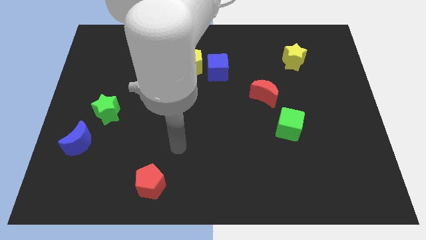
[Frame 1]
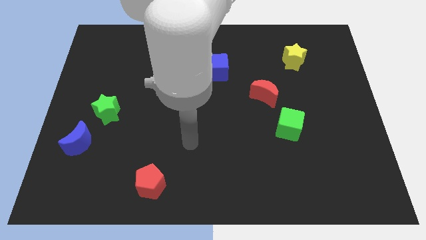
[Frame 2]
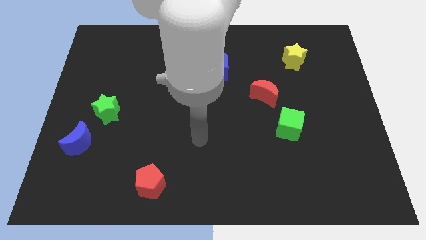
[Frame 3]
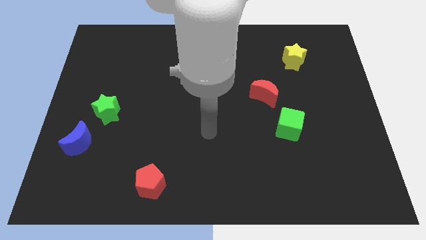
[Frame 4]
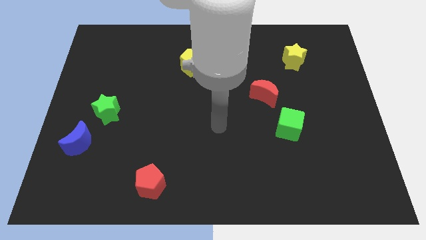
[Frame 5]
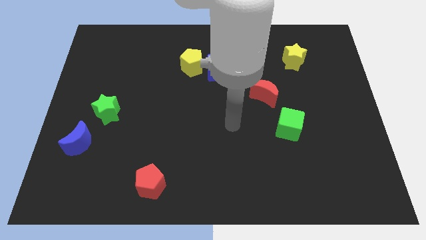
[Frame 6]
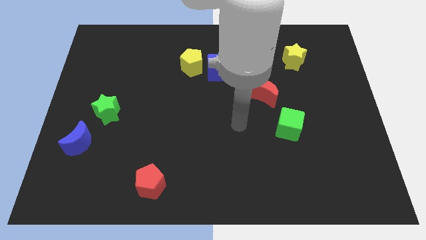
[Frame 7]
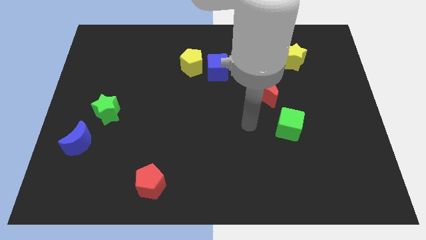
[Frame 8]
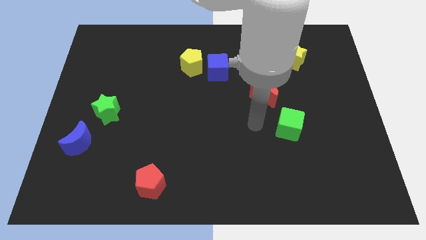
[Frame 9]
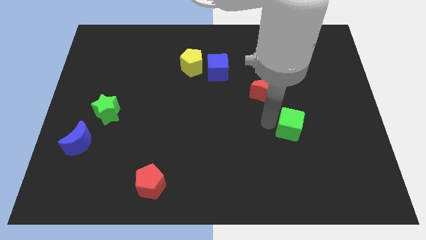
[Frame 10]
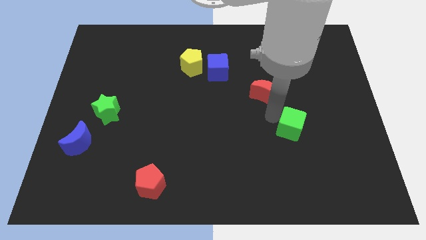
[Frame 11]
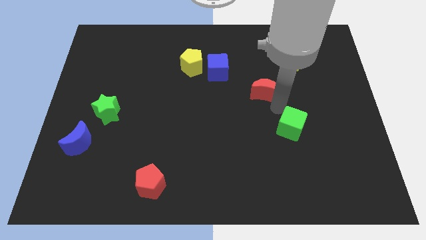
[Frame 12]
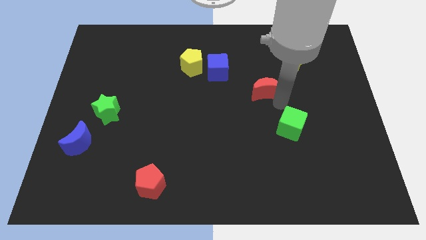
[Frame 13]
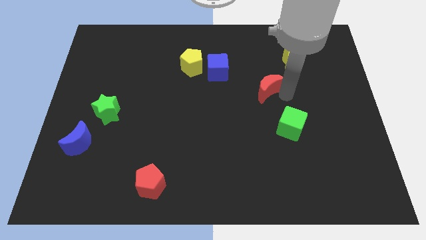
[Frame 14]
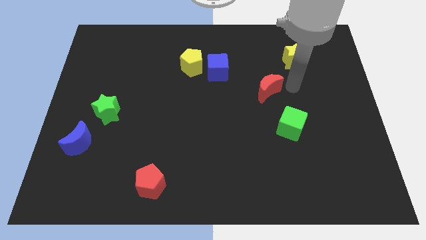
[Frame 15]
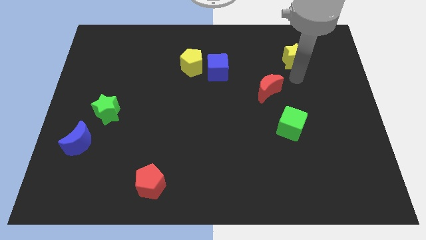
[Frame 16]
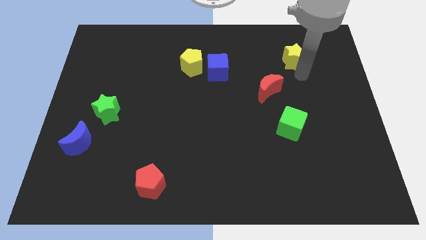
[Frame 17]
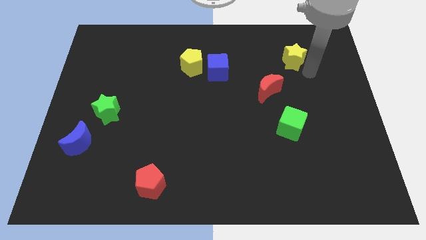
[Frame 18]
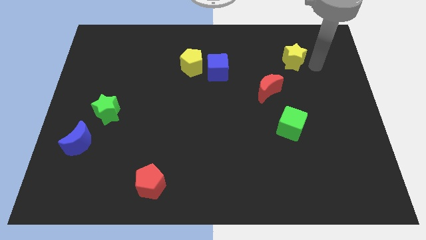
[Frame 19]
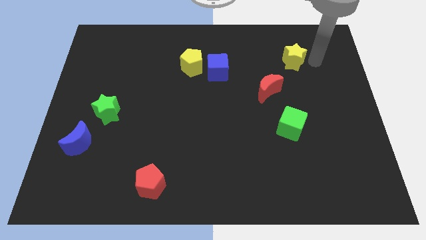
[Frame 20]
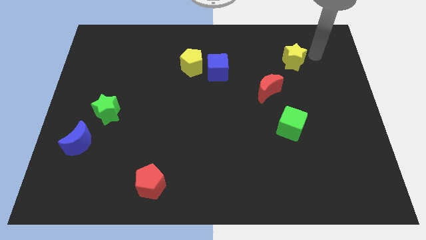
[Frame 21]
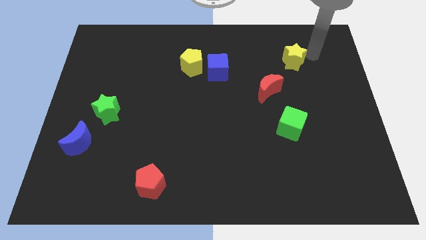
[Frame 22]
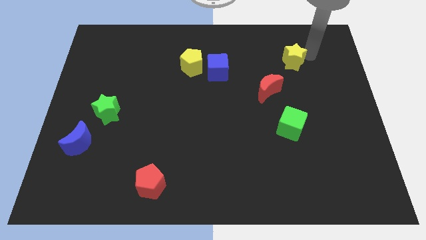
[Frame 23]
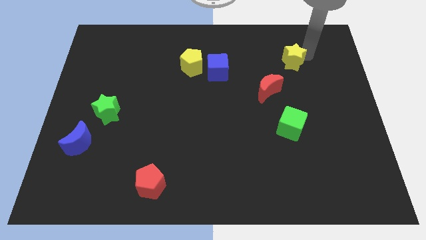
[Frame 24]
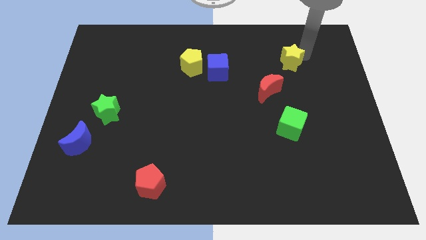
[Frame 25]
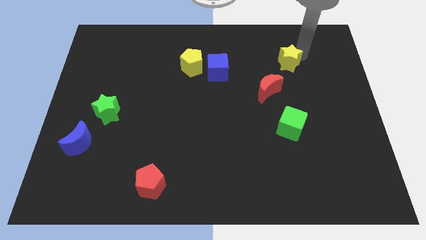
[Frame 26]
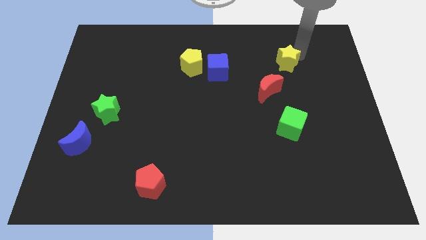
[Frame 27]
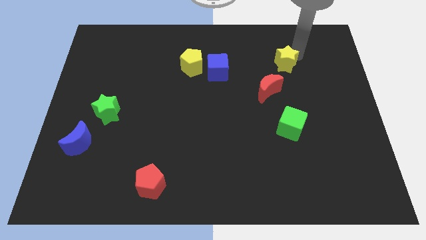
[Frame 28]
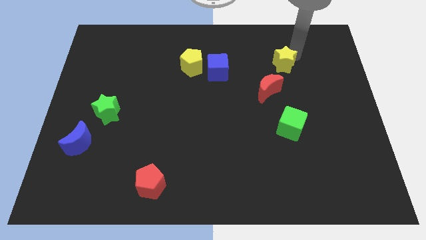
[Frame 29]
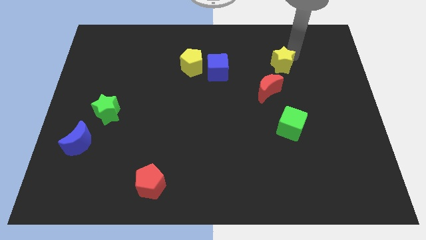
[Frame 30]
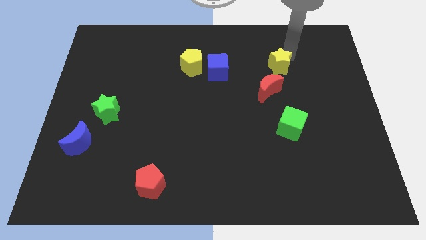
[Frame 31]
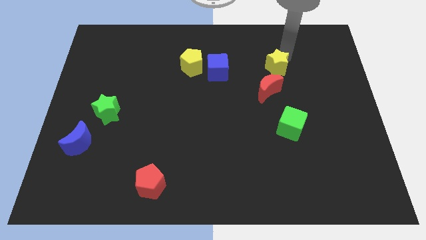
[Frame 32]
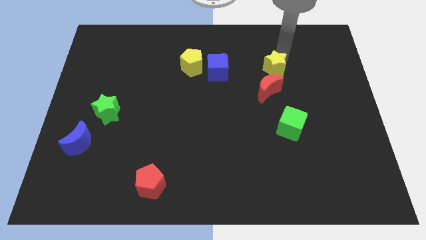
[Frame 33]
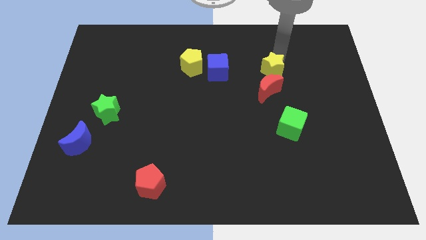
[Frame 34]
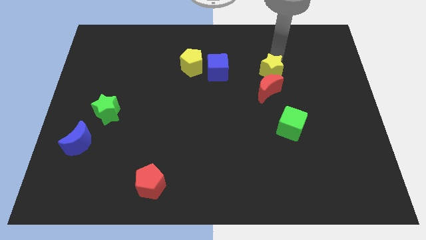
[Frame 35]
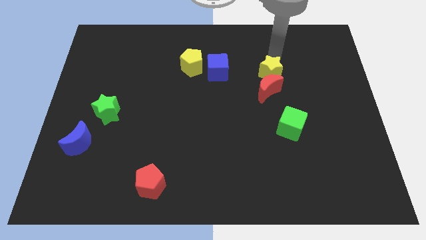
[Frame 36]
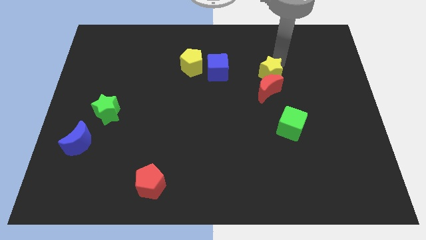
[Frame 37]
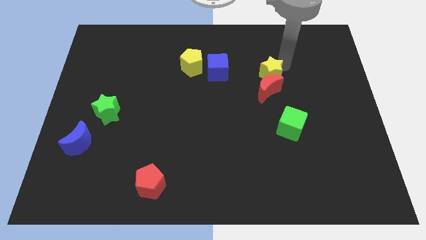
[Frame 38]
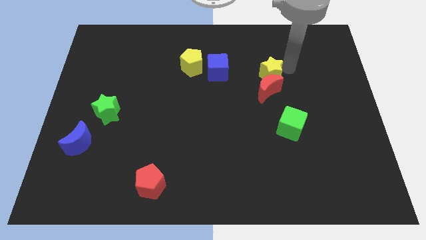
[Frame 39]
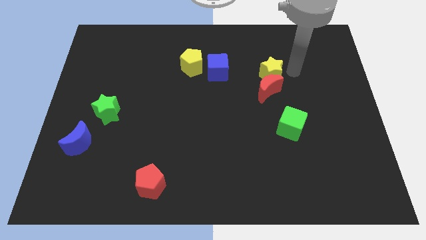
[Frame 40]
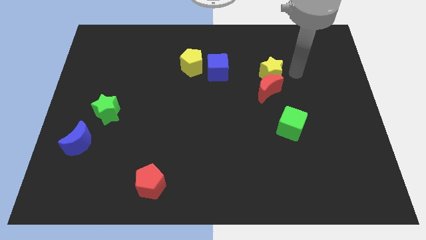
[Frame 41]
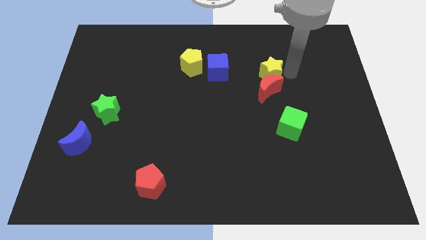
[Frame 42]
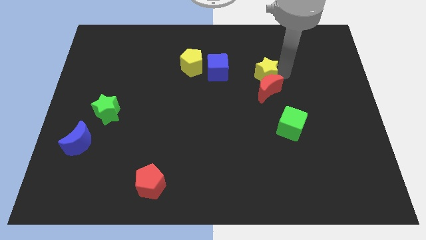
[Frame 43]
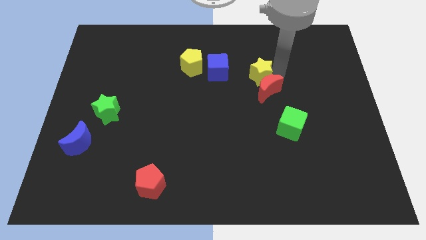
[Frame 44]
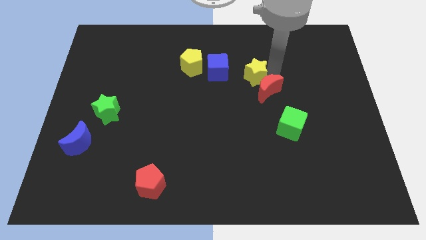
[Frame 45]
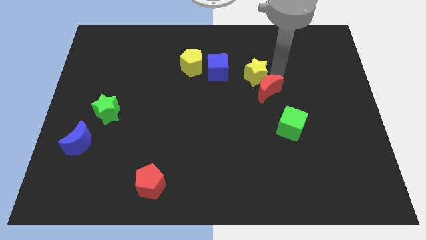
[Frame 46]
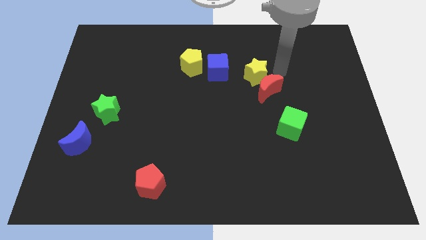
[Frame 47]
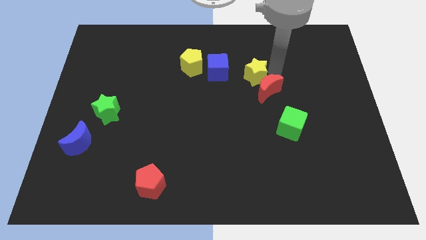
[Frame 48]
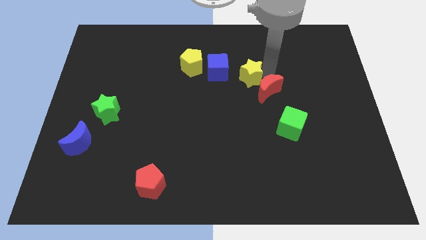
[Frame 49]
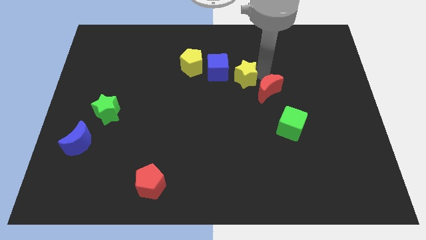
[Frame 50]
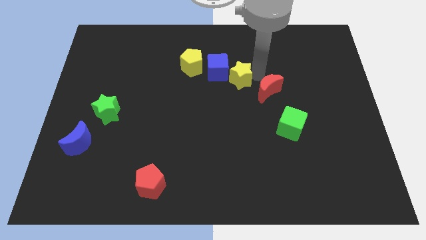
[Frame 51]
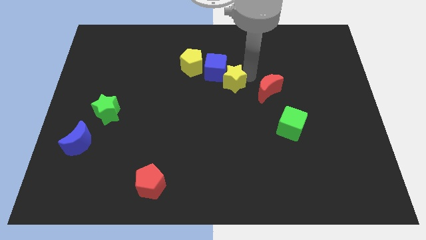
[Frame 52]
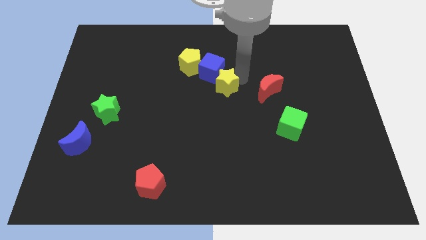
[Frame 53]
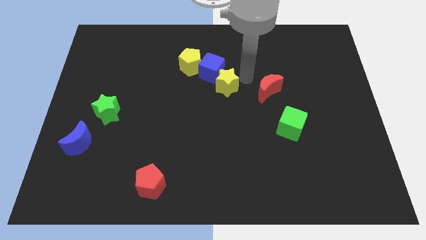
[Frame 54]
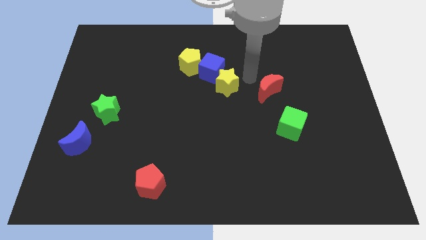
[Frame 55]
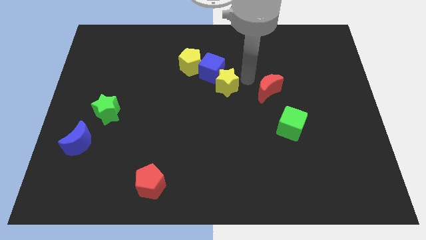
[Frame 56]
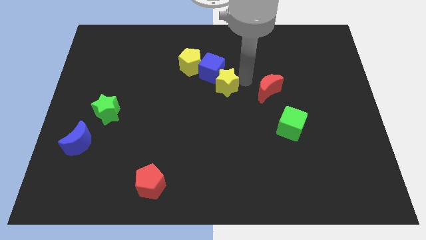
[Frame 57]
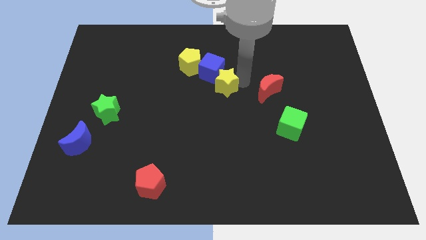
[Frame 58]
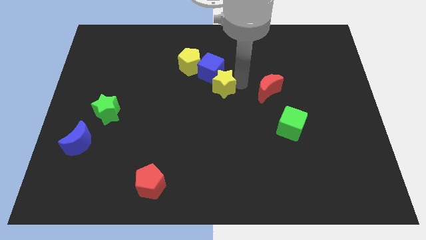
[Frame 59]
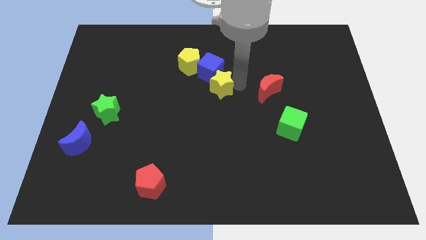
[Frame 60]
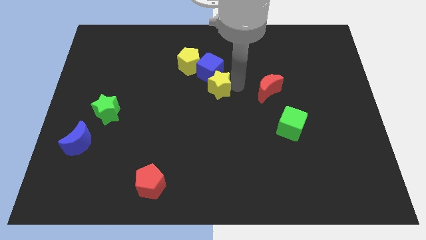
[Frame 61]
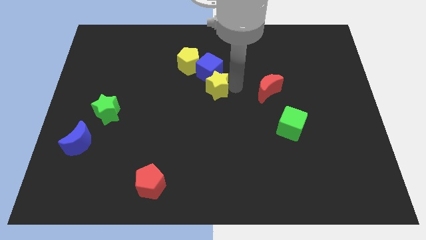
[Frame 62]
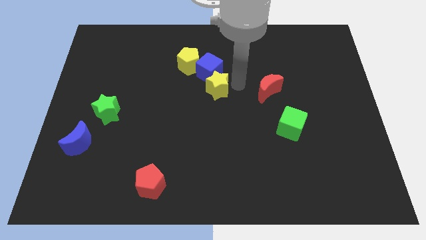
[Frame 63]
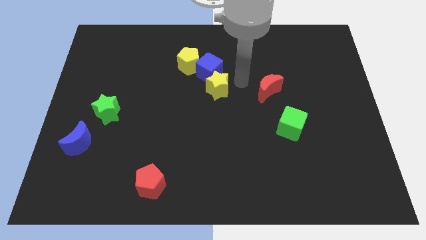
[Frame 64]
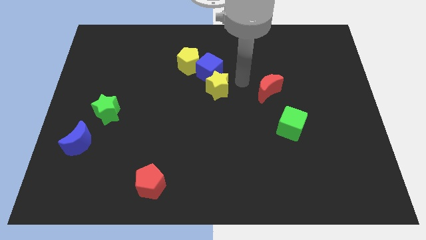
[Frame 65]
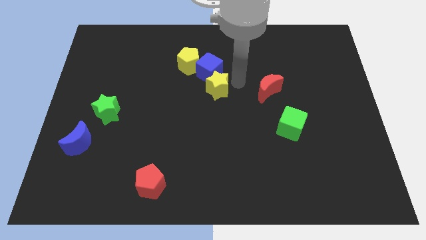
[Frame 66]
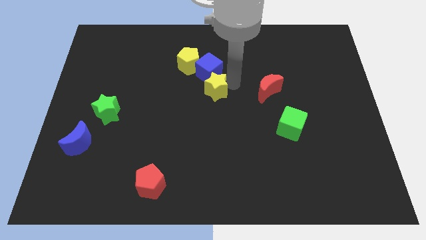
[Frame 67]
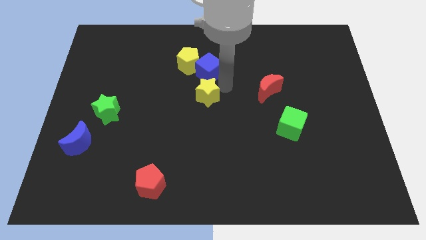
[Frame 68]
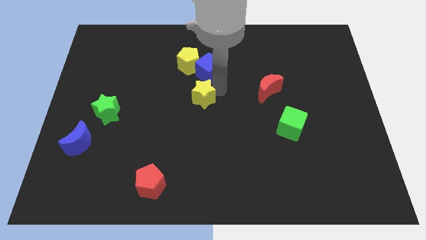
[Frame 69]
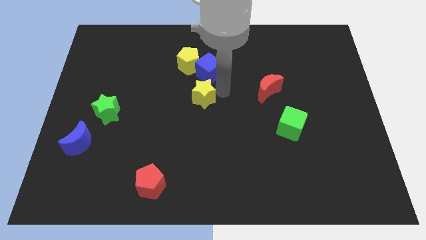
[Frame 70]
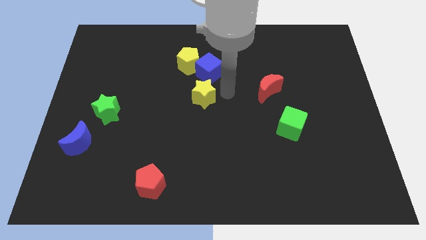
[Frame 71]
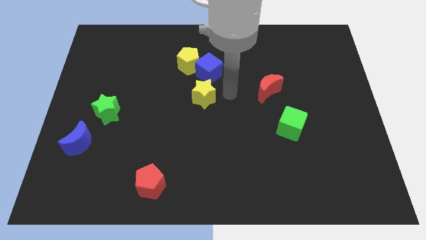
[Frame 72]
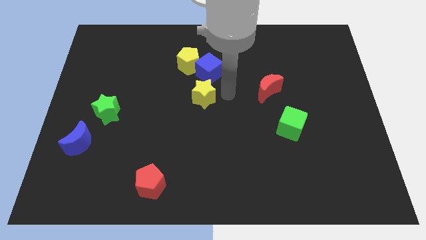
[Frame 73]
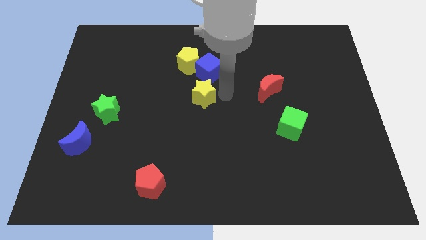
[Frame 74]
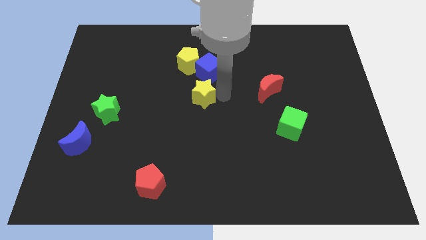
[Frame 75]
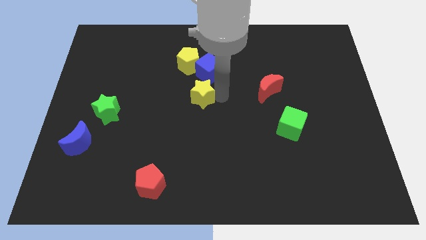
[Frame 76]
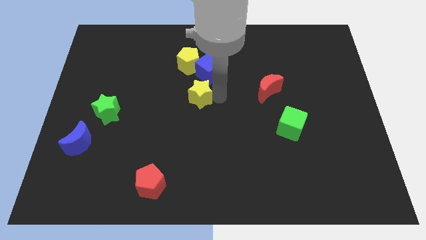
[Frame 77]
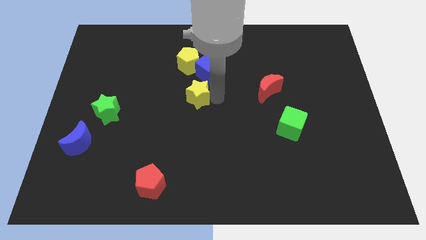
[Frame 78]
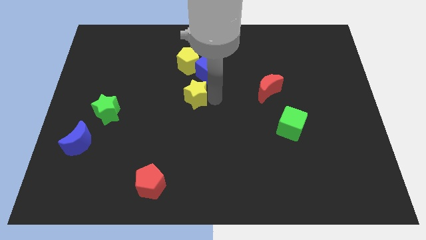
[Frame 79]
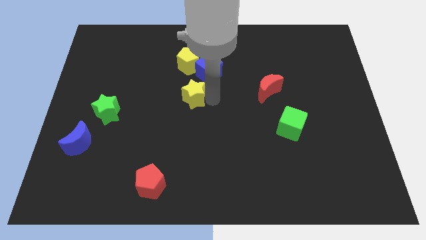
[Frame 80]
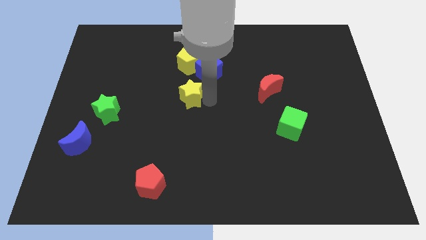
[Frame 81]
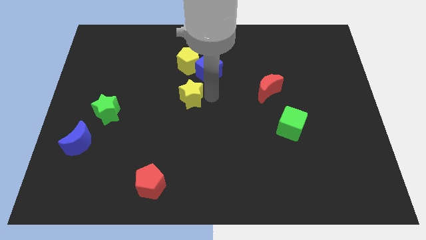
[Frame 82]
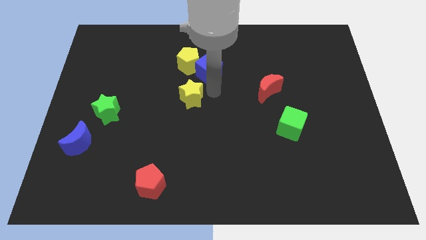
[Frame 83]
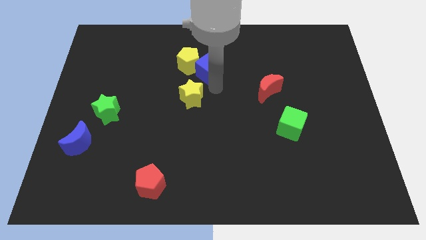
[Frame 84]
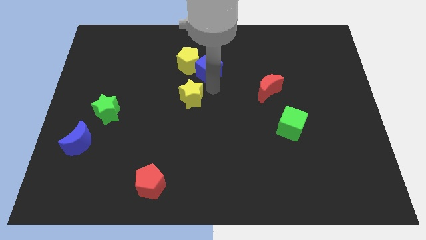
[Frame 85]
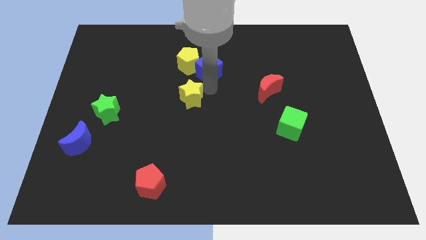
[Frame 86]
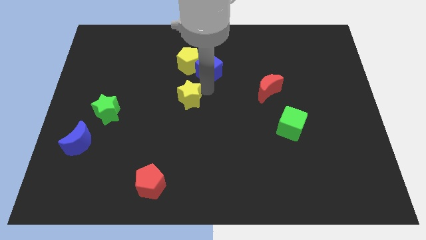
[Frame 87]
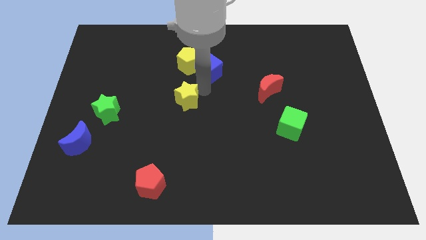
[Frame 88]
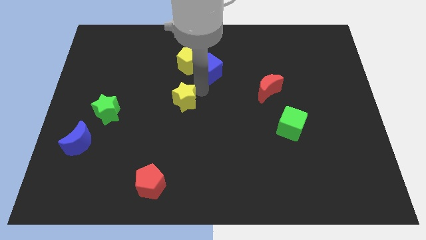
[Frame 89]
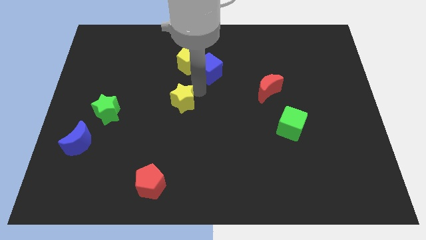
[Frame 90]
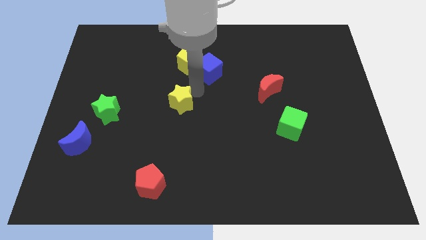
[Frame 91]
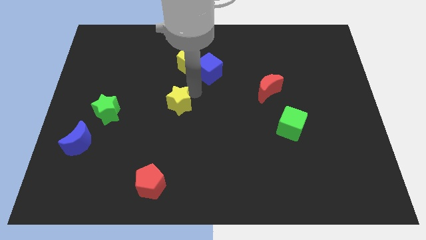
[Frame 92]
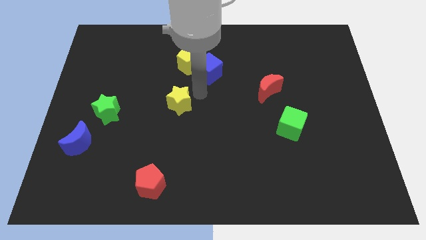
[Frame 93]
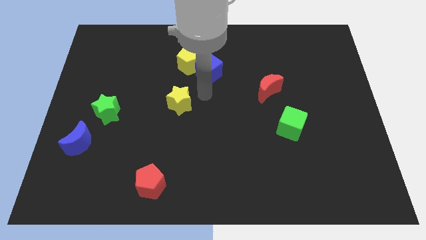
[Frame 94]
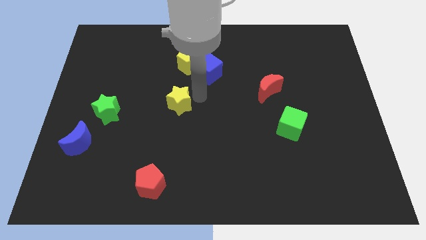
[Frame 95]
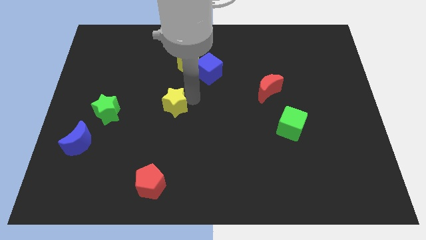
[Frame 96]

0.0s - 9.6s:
push the yellow star to the right of the green star
